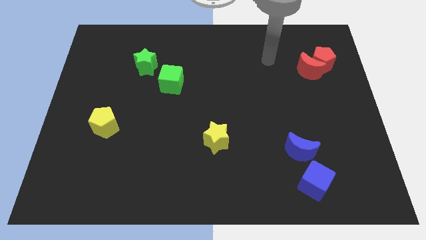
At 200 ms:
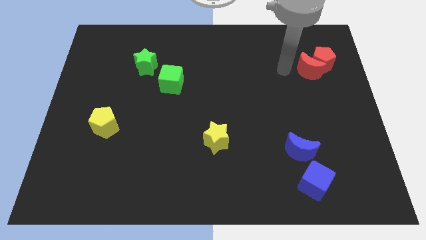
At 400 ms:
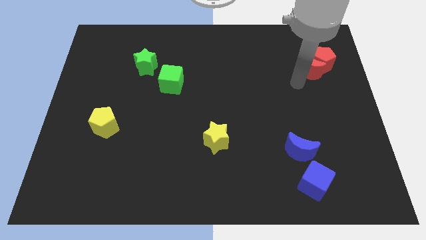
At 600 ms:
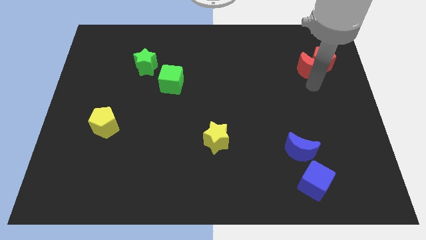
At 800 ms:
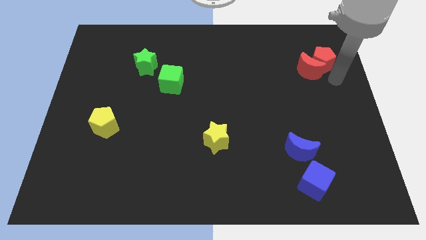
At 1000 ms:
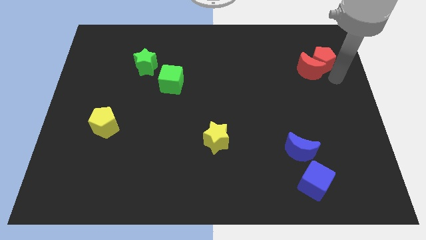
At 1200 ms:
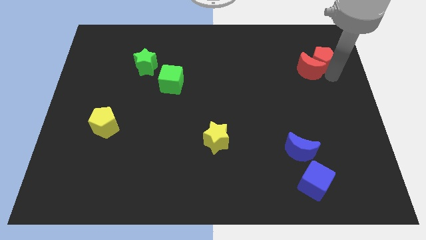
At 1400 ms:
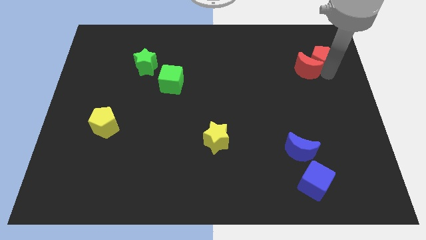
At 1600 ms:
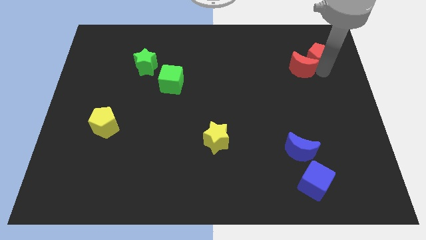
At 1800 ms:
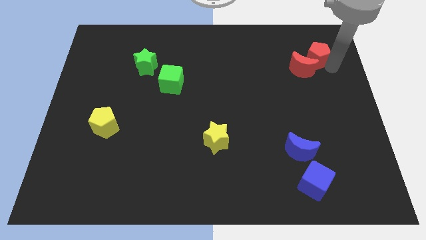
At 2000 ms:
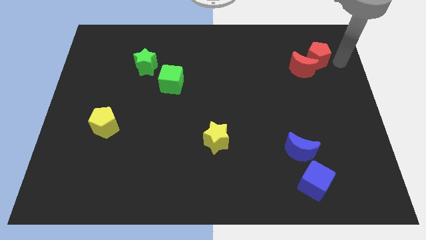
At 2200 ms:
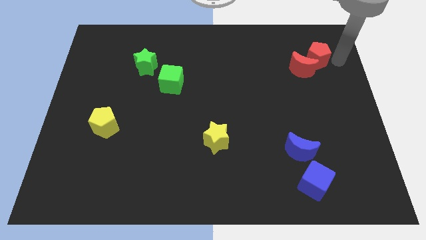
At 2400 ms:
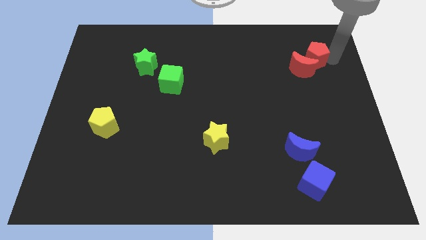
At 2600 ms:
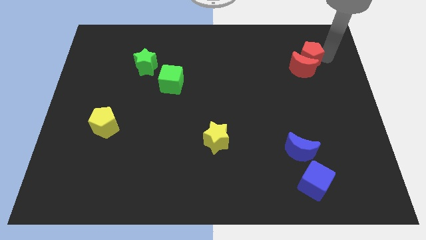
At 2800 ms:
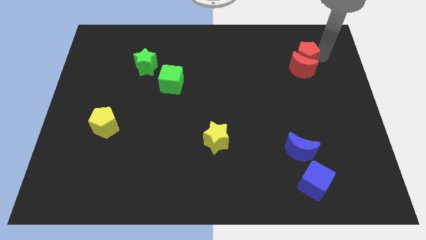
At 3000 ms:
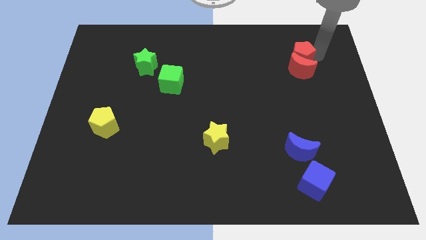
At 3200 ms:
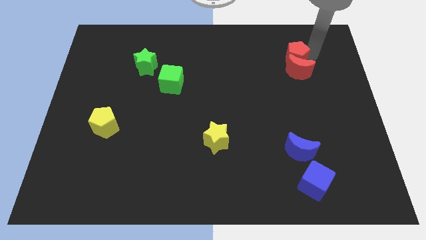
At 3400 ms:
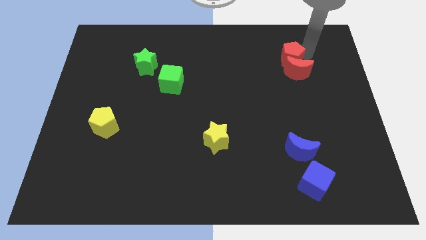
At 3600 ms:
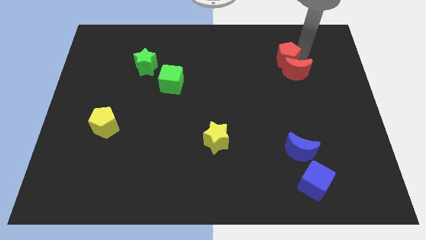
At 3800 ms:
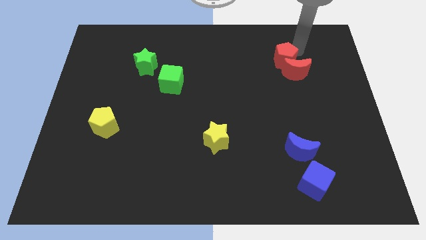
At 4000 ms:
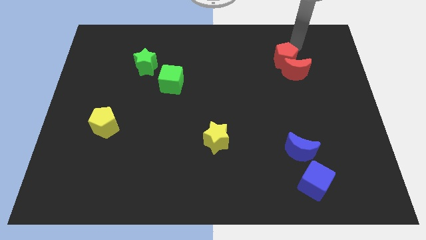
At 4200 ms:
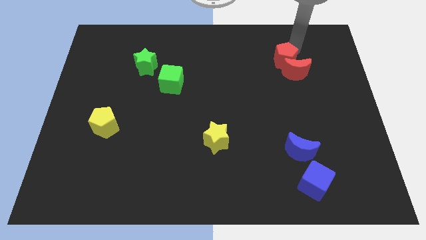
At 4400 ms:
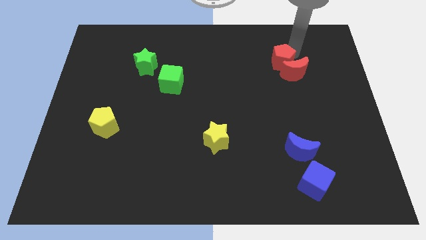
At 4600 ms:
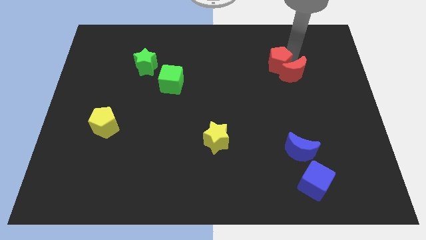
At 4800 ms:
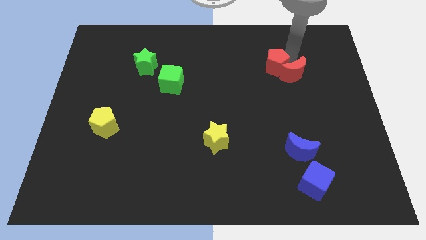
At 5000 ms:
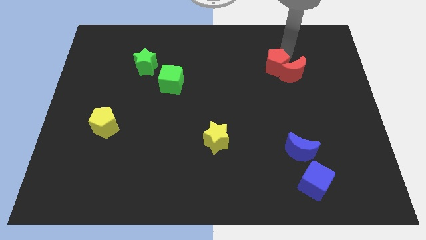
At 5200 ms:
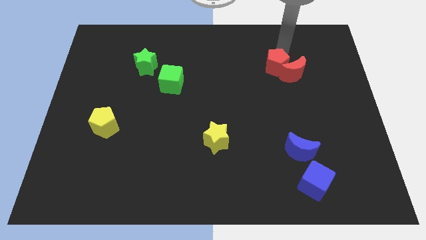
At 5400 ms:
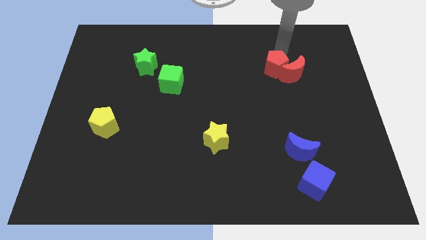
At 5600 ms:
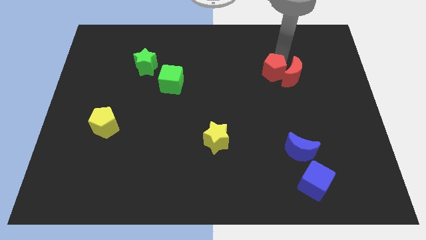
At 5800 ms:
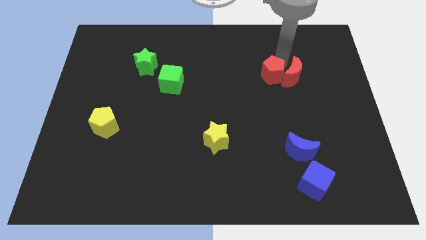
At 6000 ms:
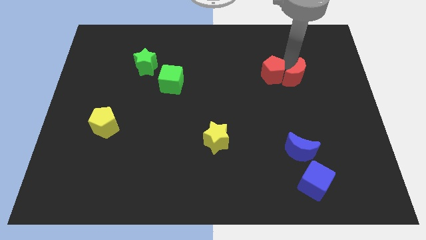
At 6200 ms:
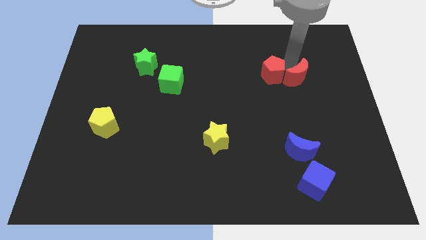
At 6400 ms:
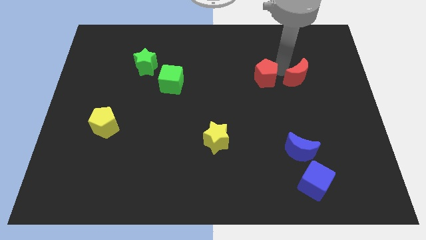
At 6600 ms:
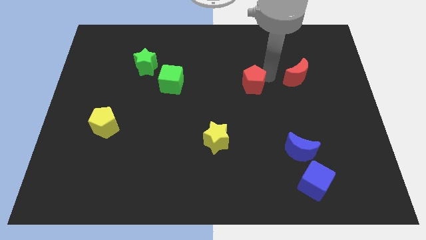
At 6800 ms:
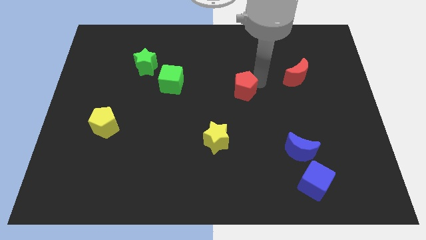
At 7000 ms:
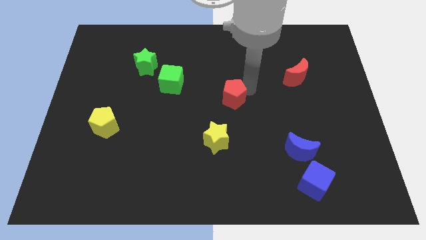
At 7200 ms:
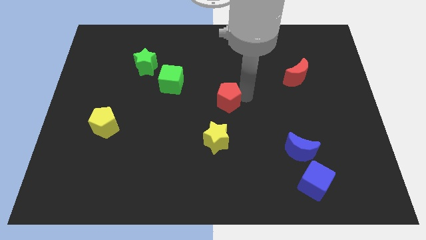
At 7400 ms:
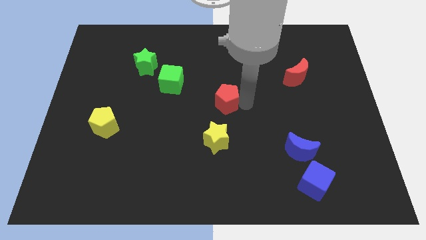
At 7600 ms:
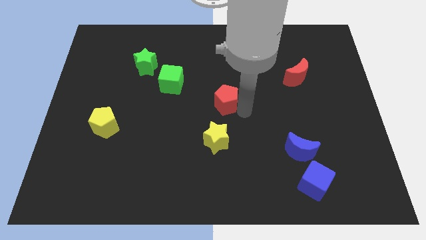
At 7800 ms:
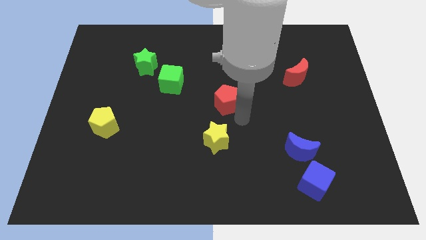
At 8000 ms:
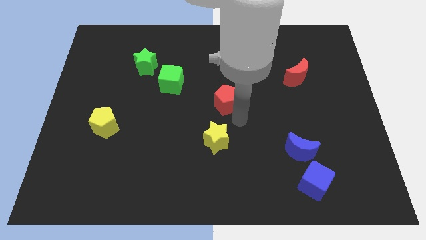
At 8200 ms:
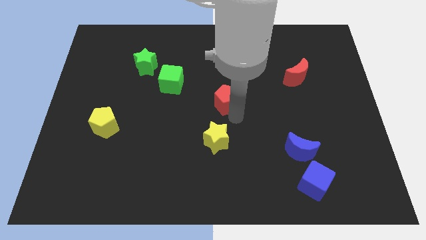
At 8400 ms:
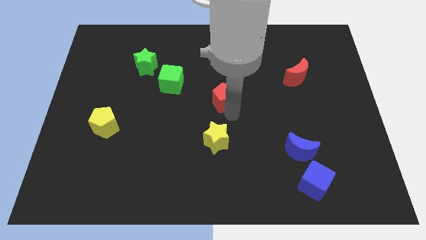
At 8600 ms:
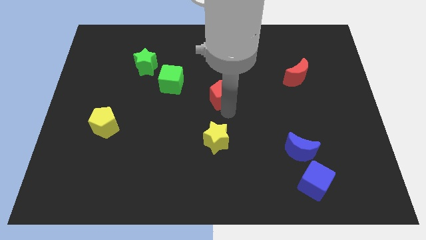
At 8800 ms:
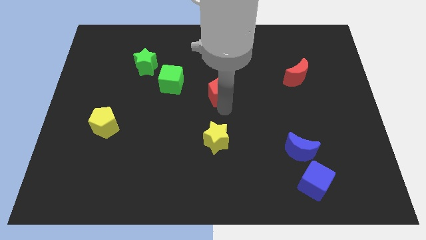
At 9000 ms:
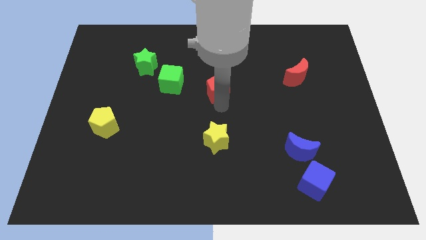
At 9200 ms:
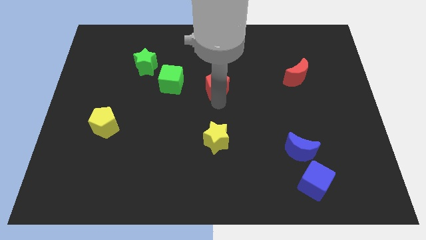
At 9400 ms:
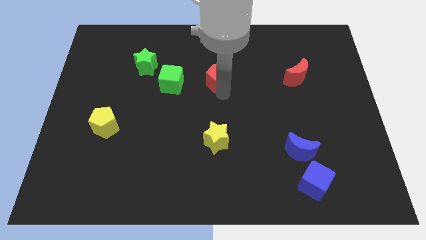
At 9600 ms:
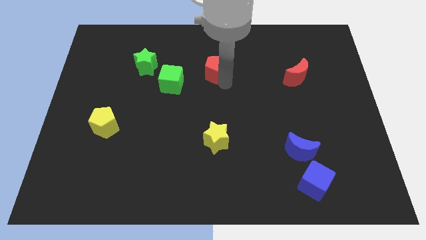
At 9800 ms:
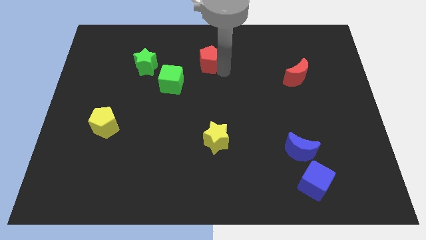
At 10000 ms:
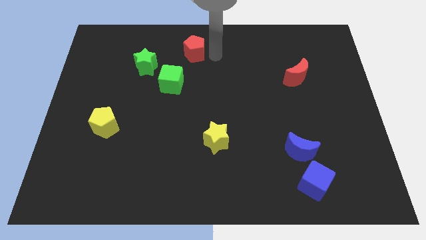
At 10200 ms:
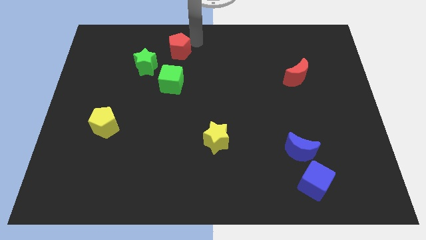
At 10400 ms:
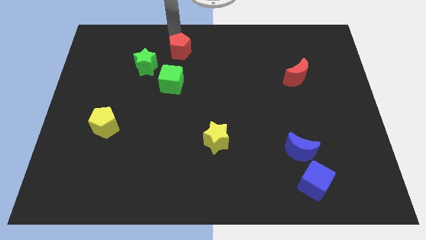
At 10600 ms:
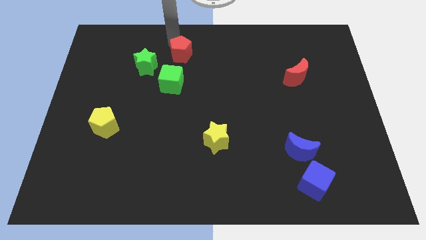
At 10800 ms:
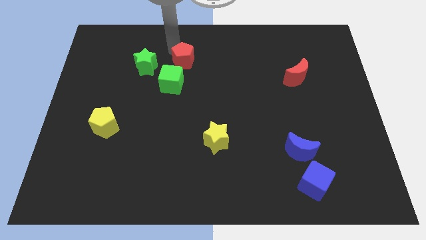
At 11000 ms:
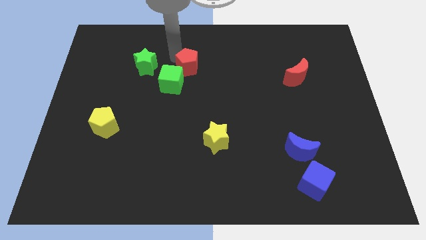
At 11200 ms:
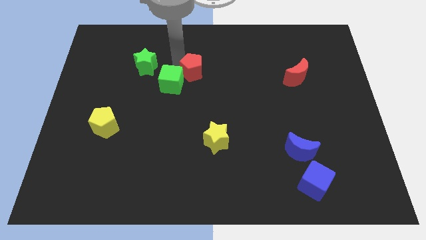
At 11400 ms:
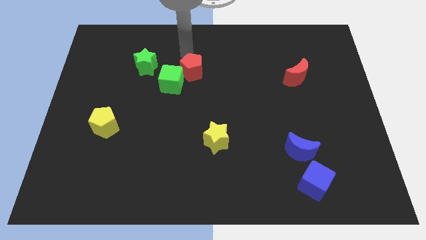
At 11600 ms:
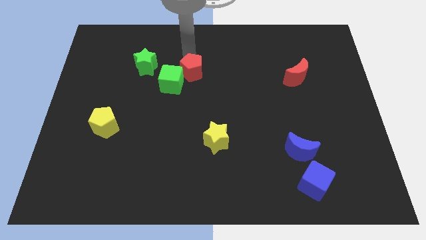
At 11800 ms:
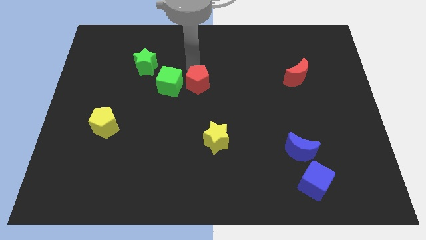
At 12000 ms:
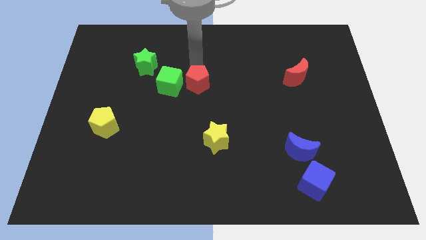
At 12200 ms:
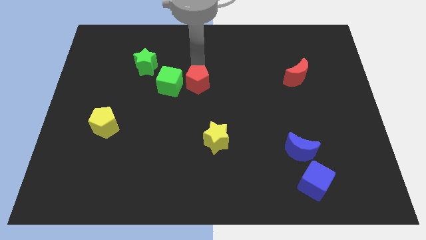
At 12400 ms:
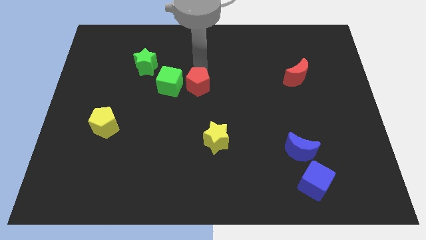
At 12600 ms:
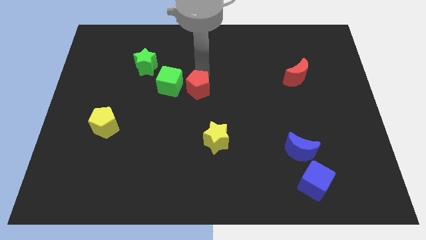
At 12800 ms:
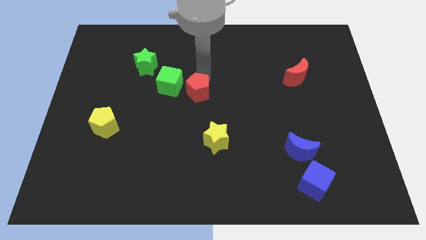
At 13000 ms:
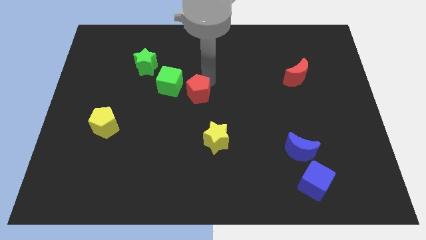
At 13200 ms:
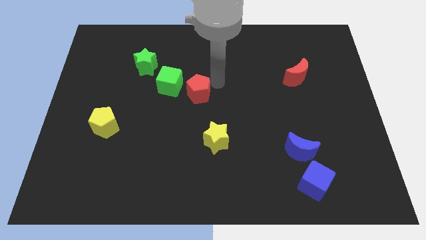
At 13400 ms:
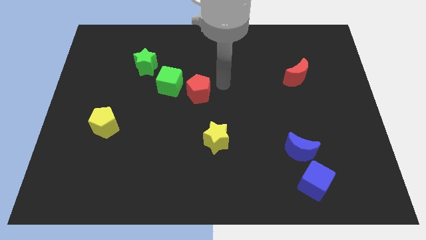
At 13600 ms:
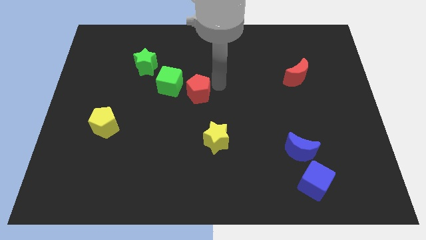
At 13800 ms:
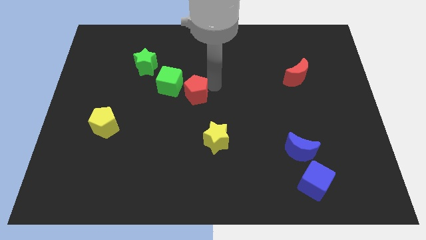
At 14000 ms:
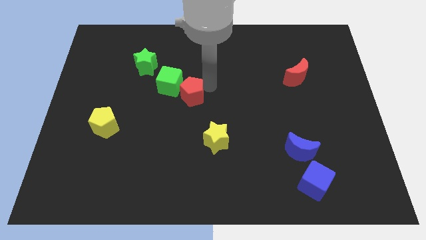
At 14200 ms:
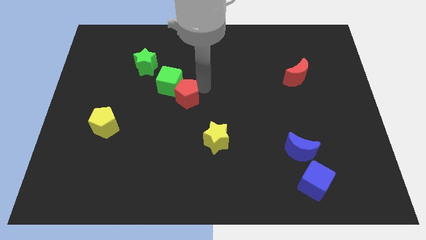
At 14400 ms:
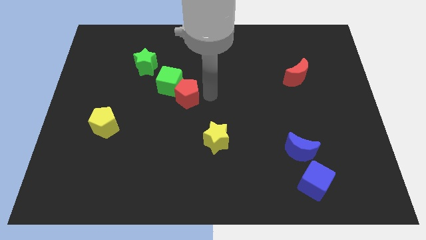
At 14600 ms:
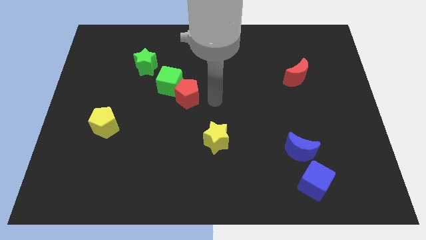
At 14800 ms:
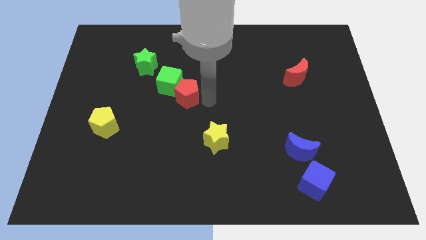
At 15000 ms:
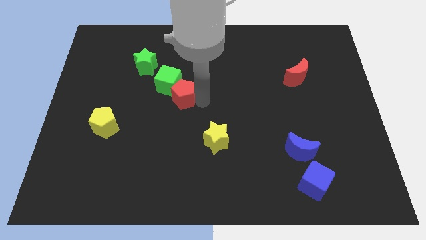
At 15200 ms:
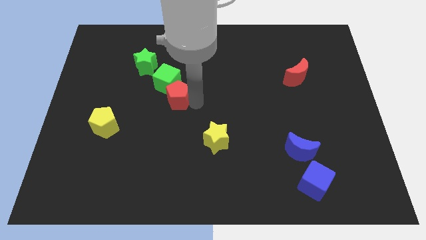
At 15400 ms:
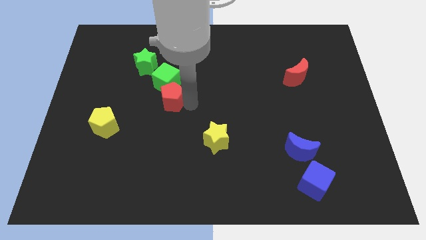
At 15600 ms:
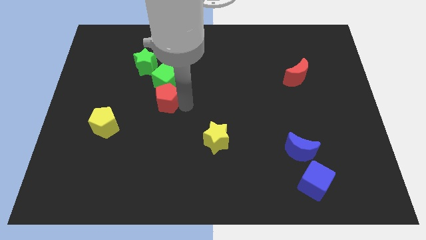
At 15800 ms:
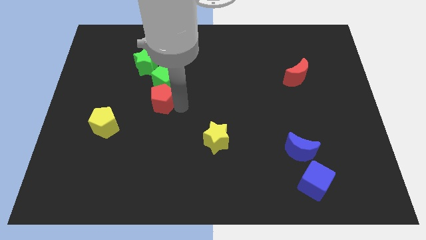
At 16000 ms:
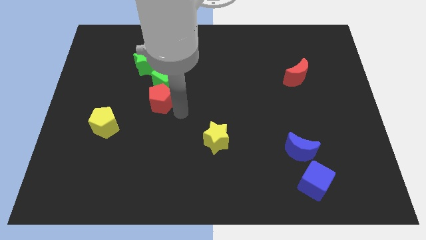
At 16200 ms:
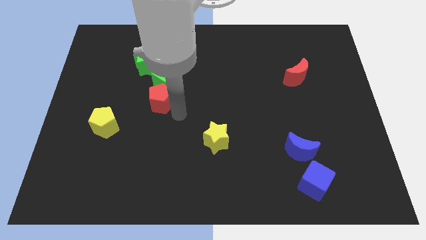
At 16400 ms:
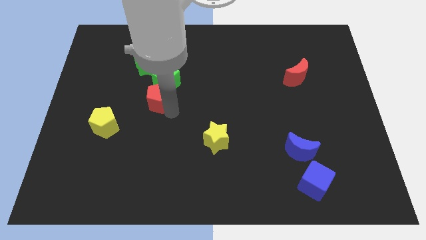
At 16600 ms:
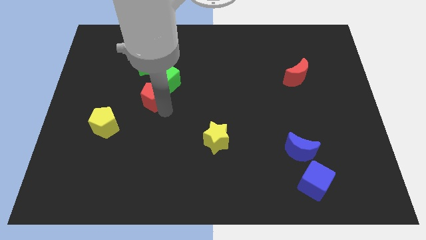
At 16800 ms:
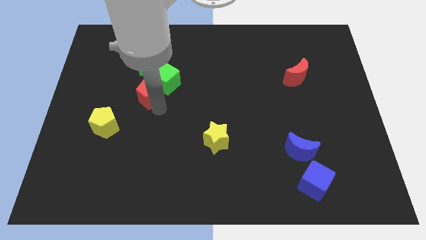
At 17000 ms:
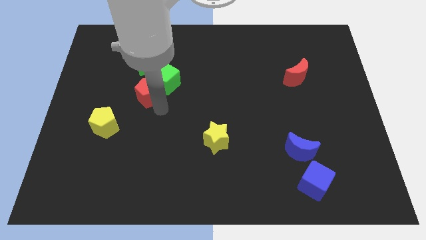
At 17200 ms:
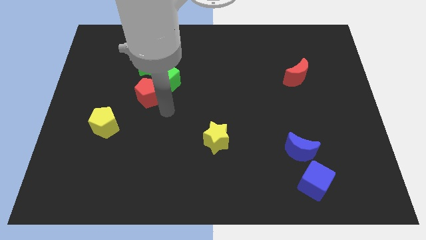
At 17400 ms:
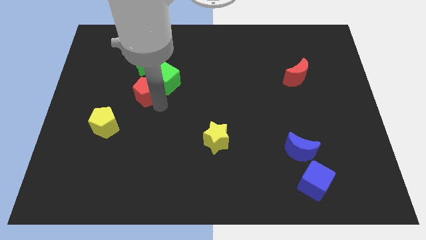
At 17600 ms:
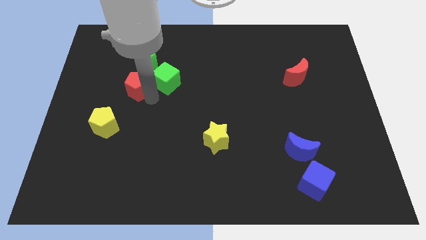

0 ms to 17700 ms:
push the red pentagon to the bottom left side of the green star
